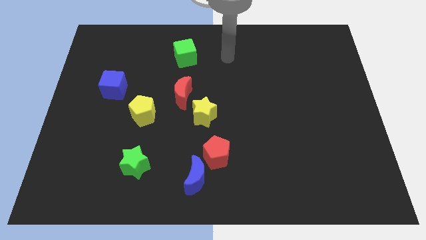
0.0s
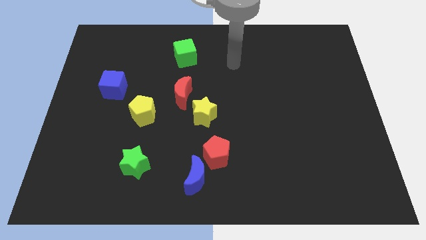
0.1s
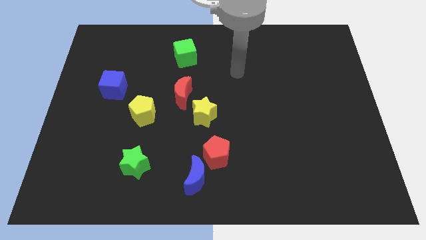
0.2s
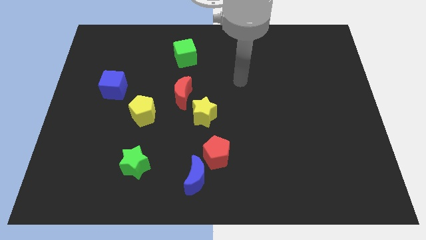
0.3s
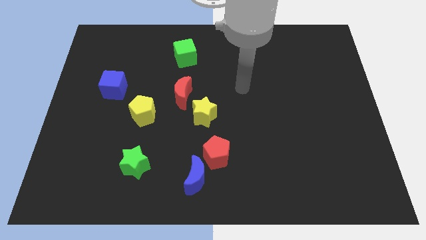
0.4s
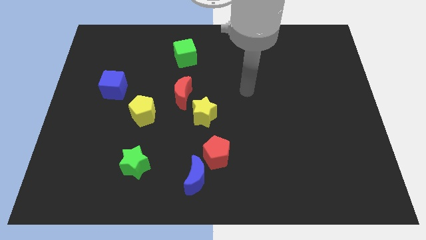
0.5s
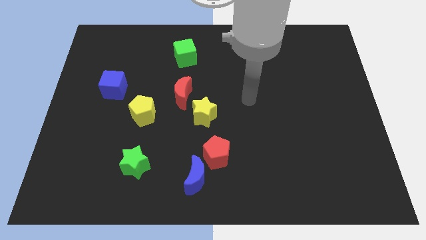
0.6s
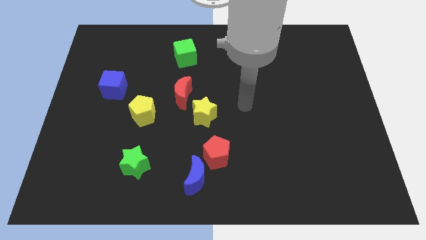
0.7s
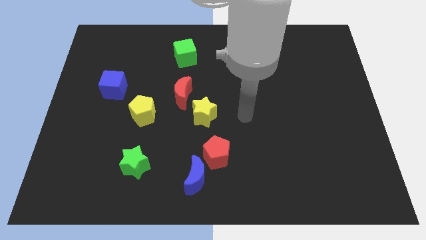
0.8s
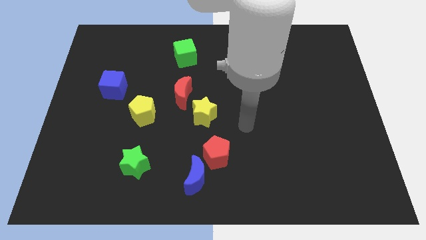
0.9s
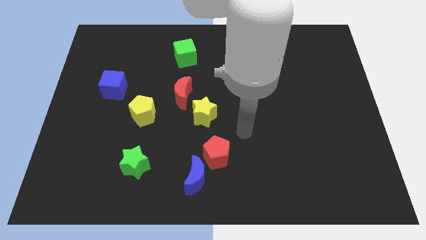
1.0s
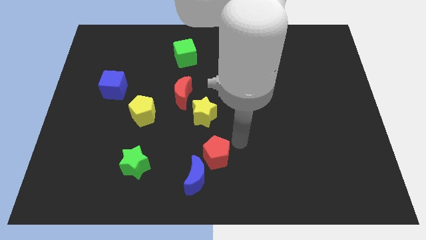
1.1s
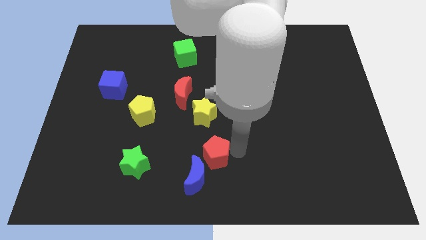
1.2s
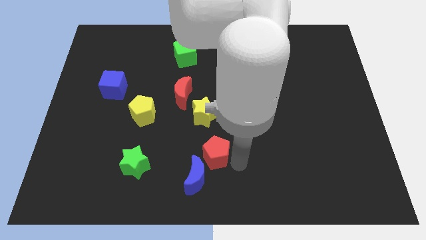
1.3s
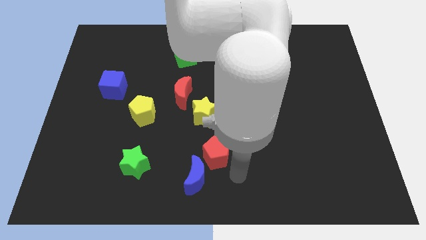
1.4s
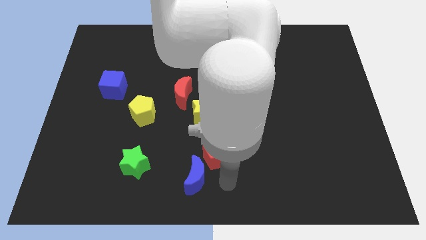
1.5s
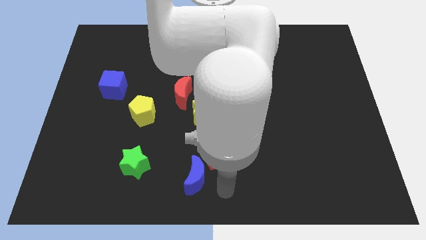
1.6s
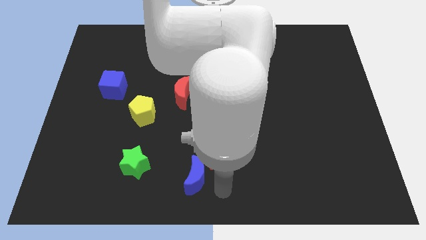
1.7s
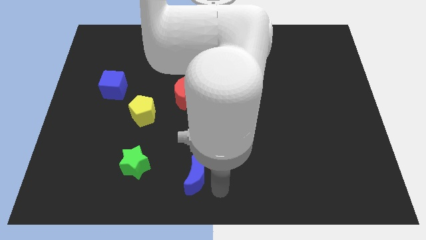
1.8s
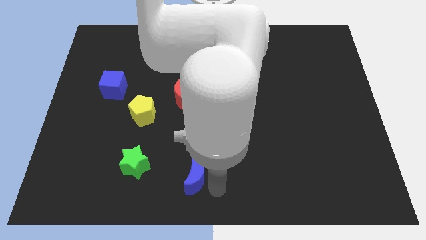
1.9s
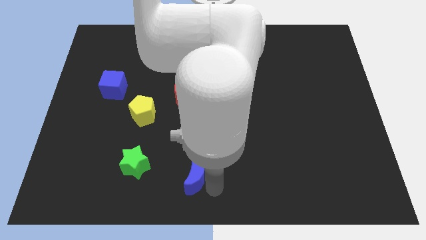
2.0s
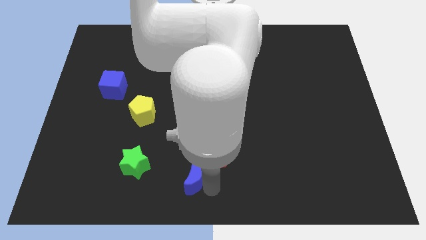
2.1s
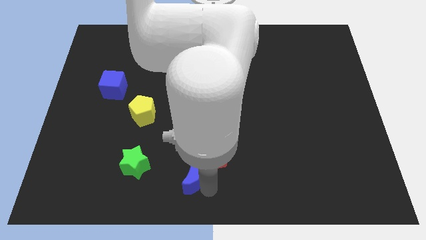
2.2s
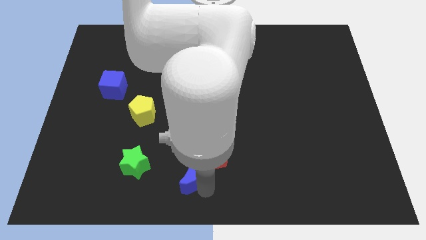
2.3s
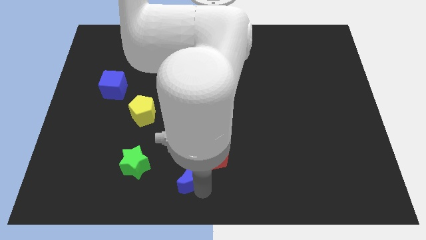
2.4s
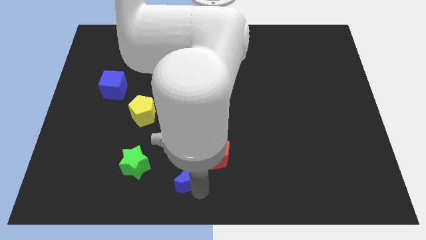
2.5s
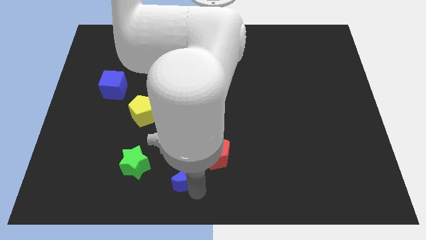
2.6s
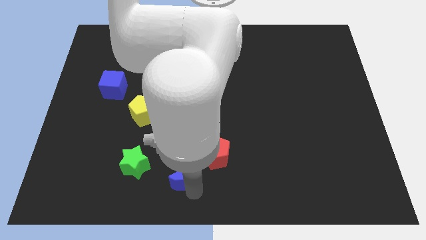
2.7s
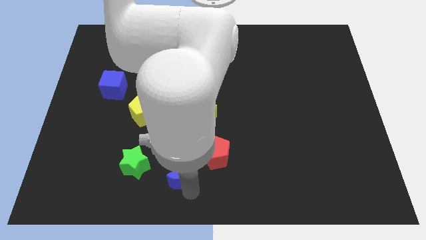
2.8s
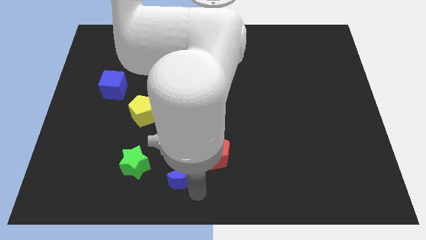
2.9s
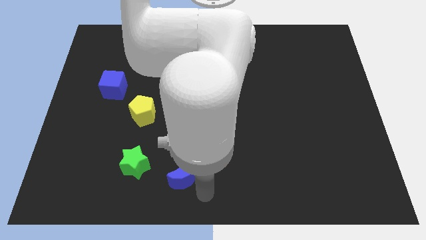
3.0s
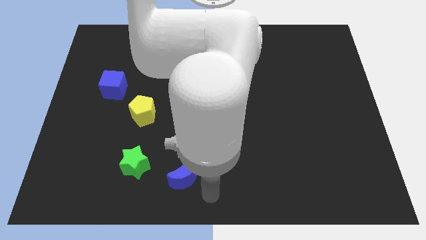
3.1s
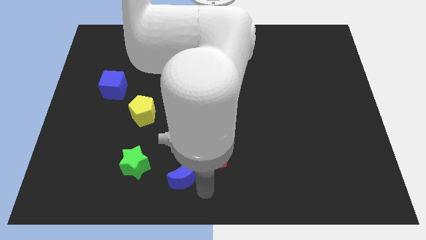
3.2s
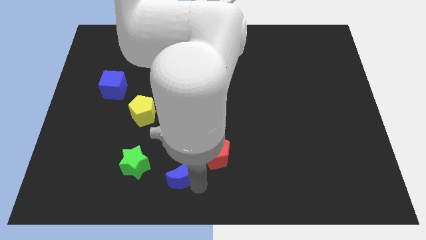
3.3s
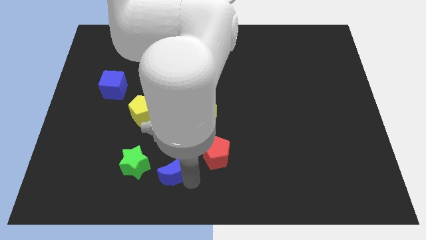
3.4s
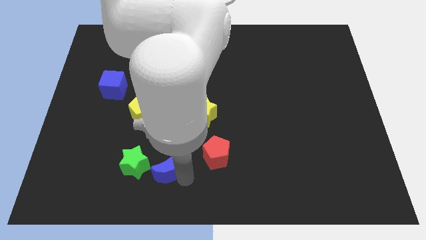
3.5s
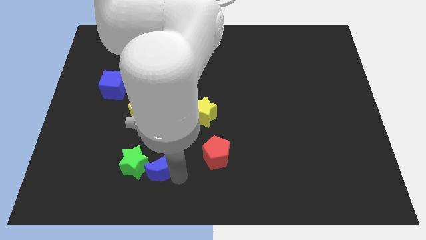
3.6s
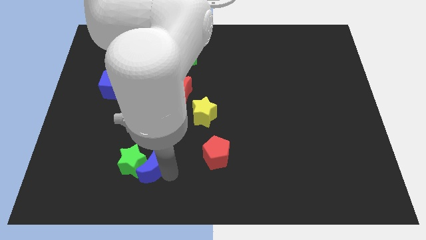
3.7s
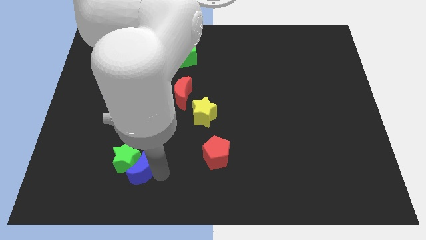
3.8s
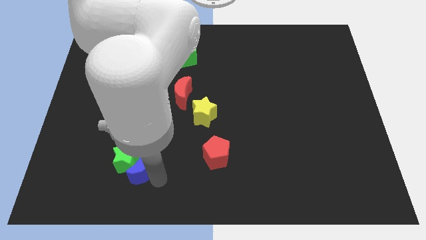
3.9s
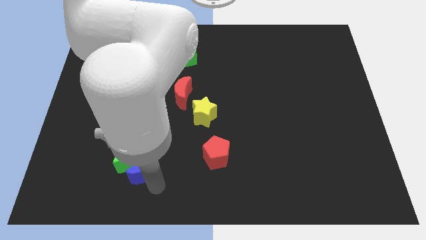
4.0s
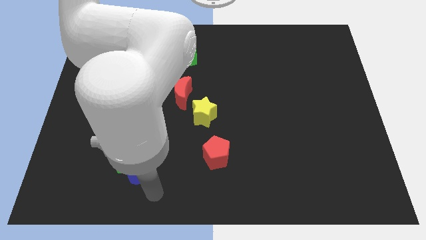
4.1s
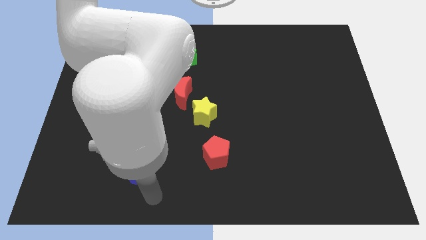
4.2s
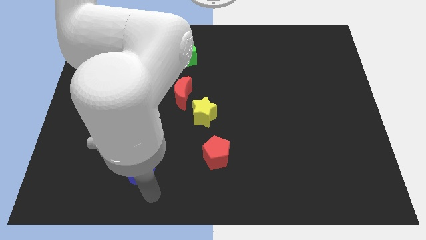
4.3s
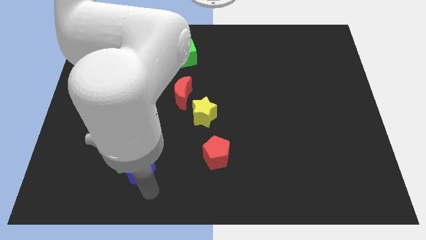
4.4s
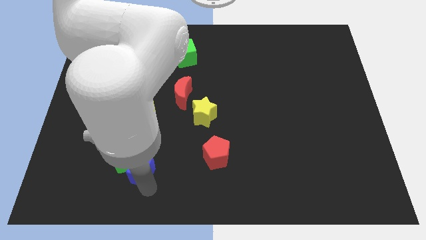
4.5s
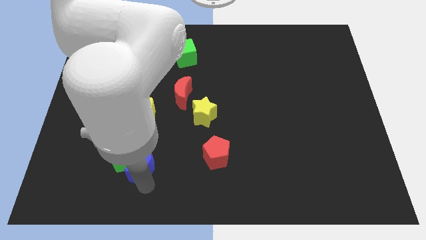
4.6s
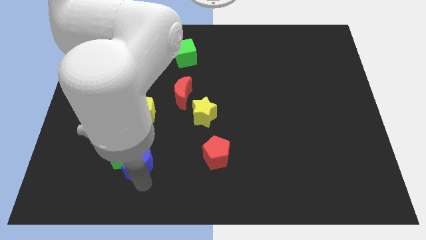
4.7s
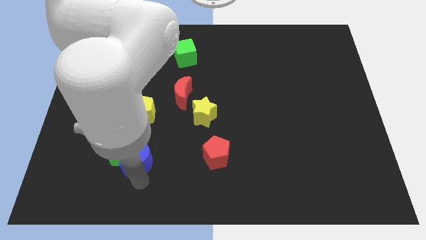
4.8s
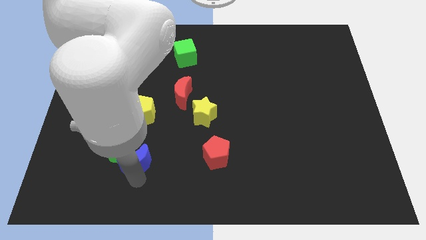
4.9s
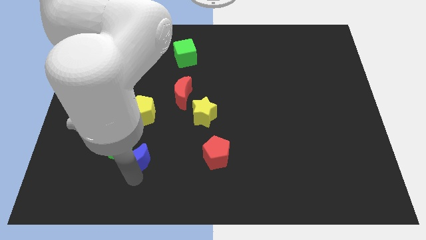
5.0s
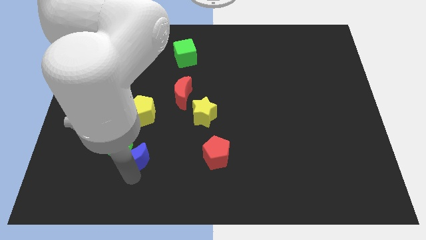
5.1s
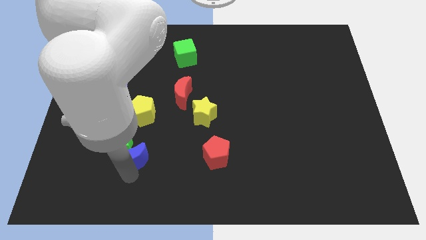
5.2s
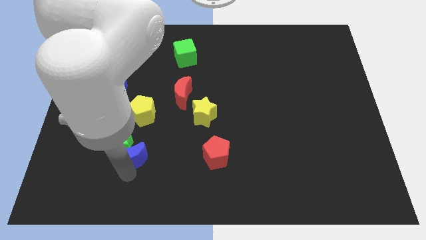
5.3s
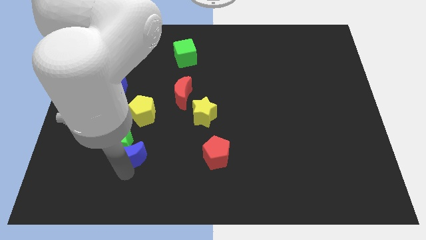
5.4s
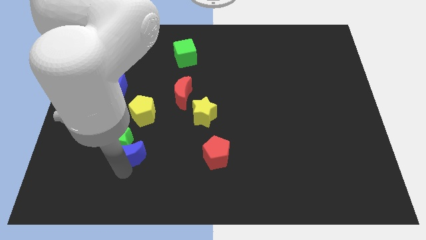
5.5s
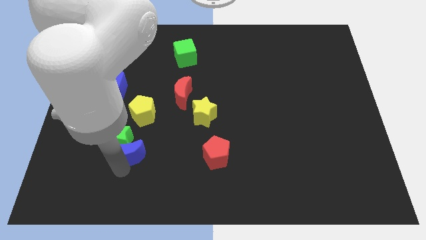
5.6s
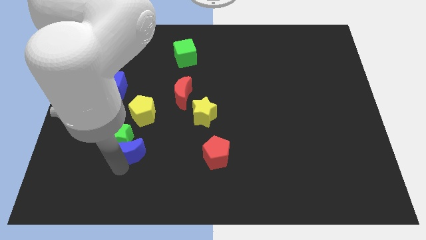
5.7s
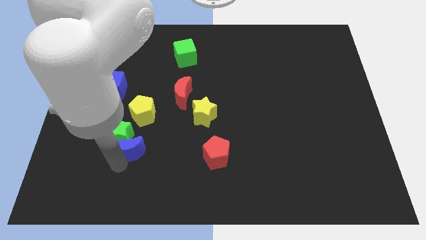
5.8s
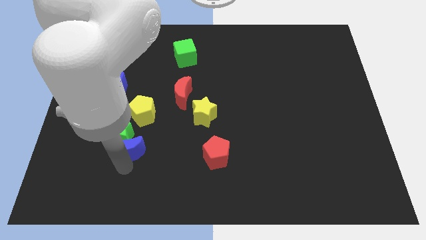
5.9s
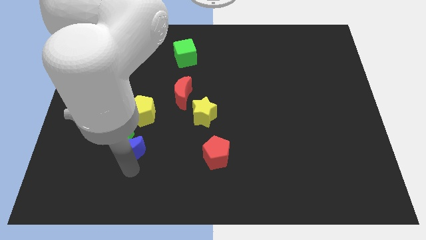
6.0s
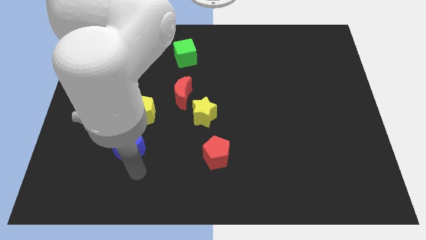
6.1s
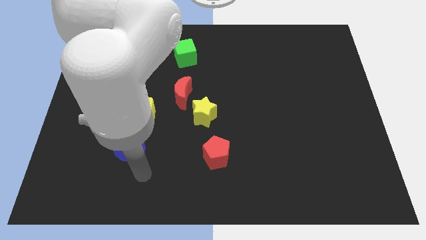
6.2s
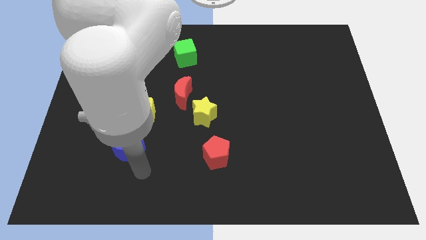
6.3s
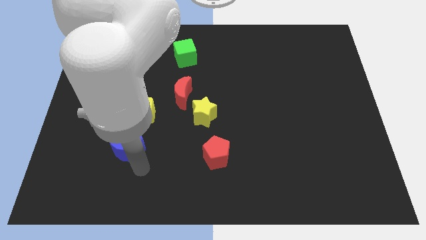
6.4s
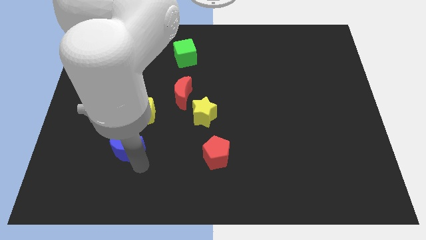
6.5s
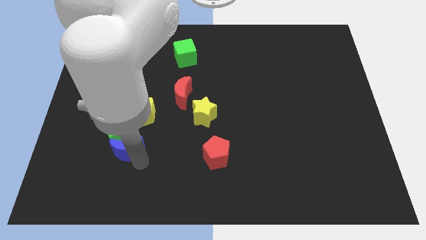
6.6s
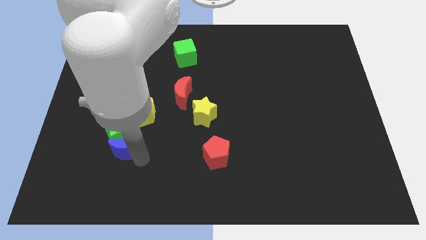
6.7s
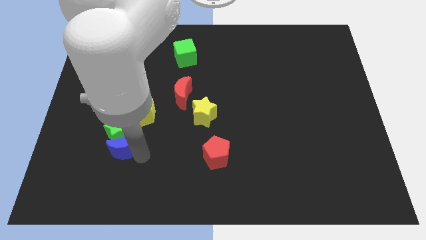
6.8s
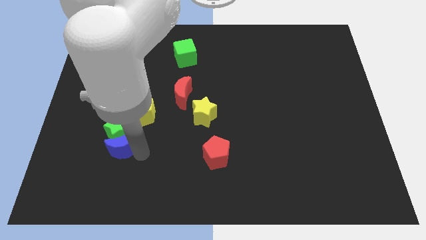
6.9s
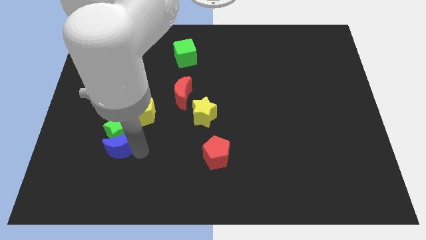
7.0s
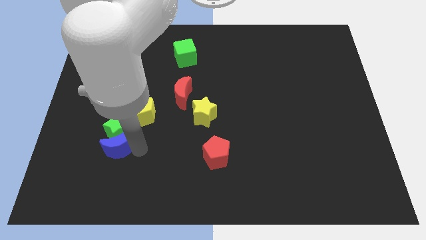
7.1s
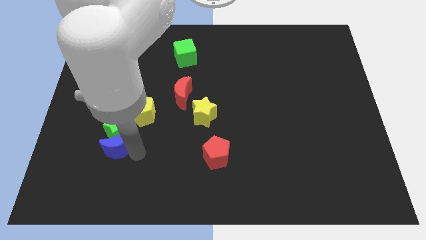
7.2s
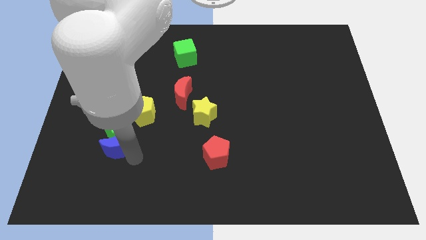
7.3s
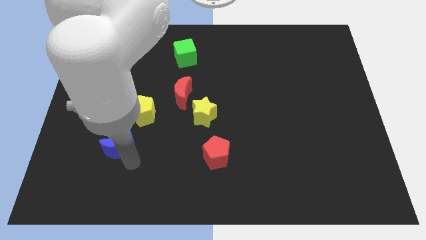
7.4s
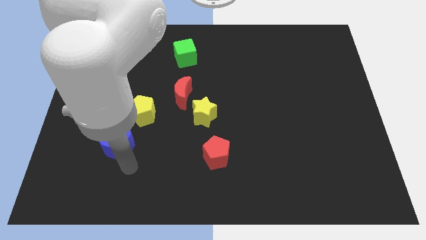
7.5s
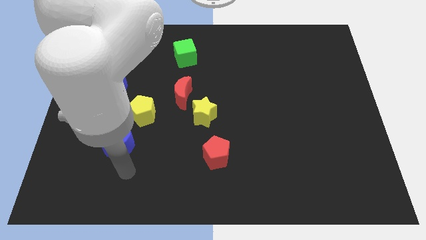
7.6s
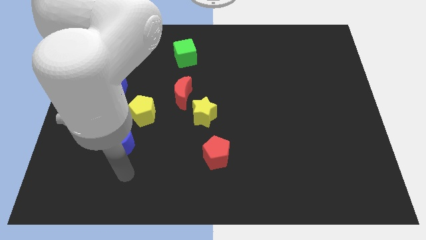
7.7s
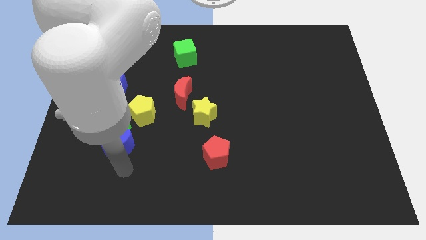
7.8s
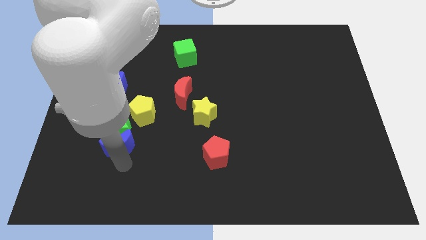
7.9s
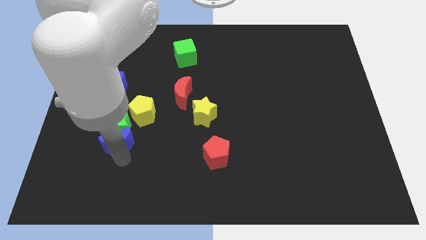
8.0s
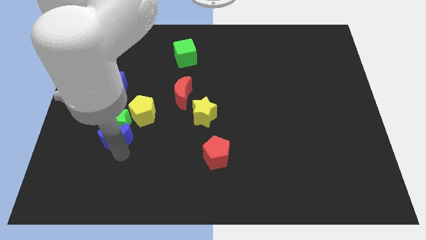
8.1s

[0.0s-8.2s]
push the blue moon to the bottom side of the blue cube
